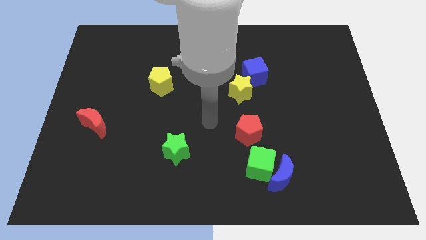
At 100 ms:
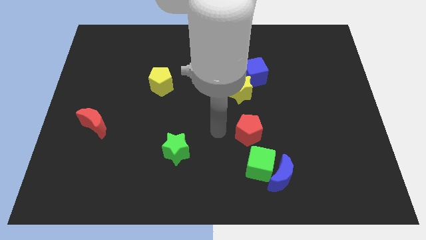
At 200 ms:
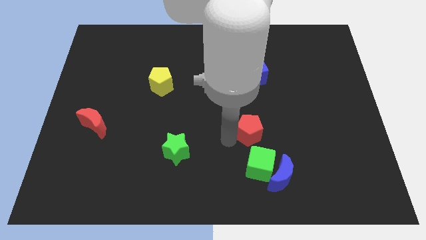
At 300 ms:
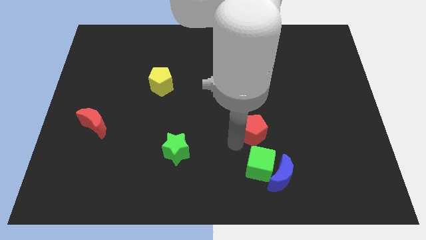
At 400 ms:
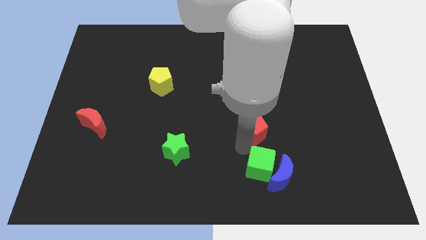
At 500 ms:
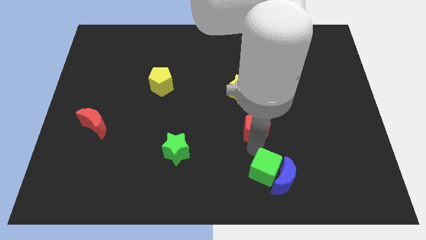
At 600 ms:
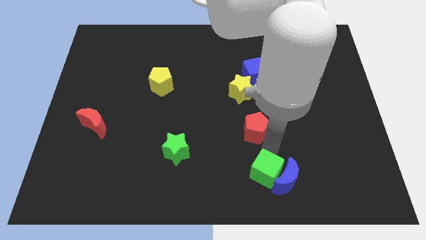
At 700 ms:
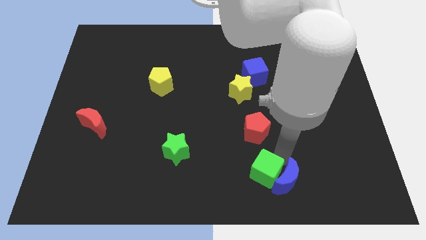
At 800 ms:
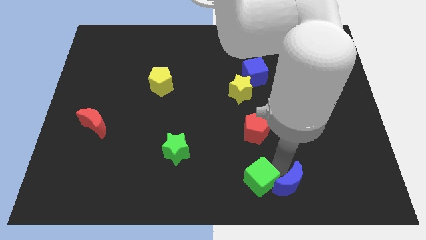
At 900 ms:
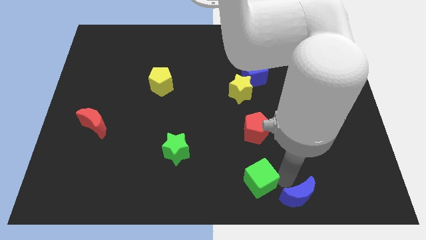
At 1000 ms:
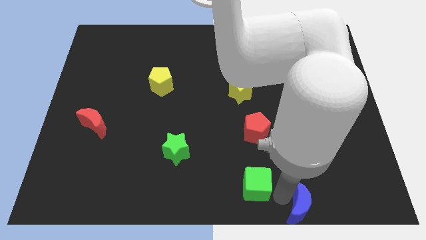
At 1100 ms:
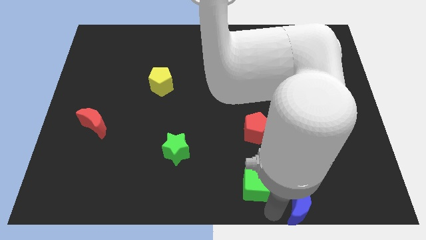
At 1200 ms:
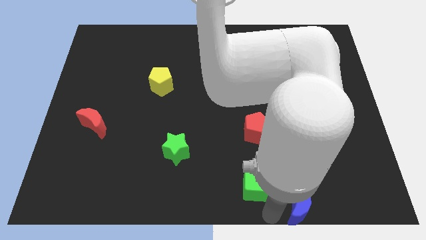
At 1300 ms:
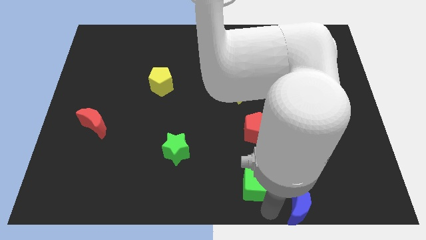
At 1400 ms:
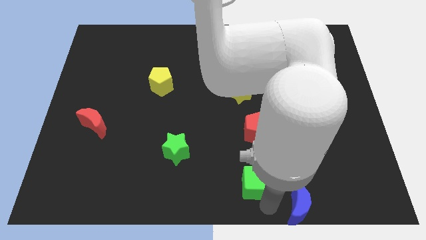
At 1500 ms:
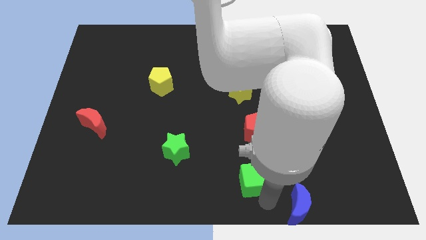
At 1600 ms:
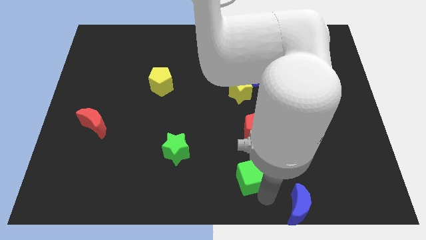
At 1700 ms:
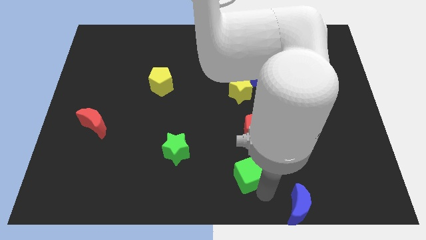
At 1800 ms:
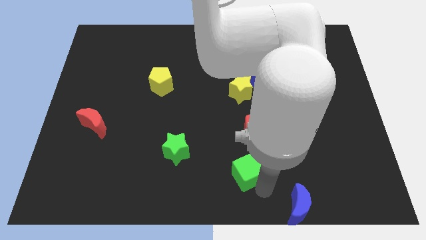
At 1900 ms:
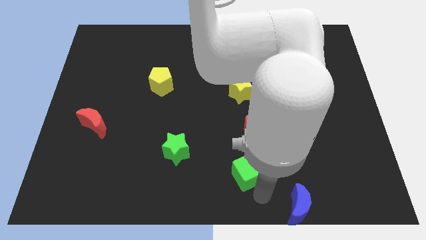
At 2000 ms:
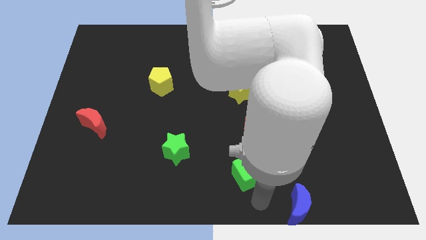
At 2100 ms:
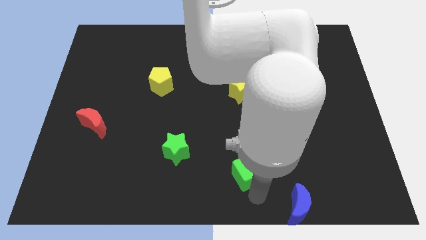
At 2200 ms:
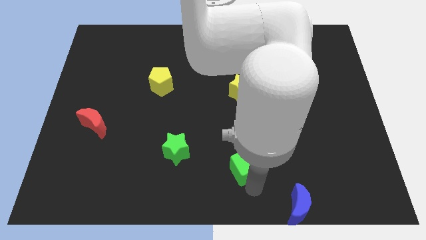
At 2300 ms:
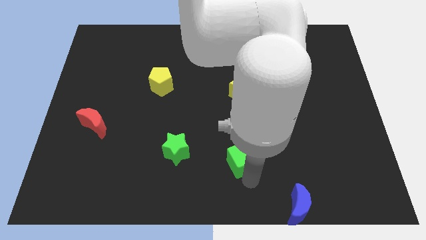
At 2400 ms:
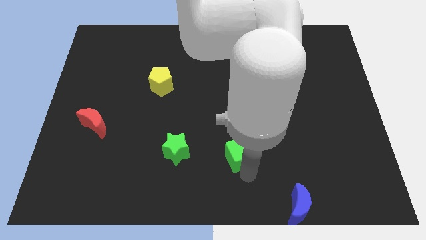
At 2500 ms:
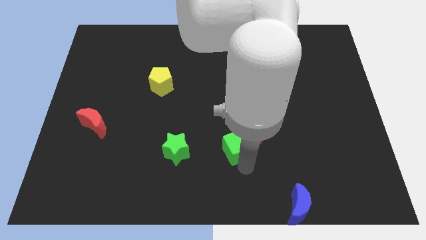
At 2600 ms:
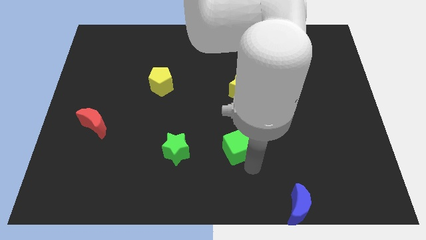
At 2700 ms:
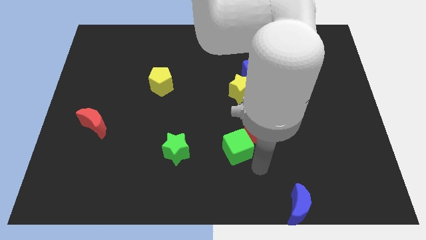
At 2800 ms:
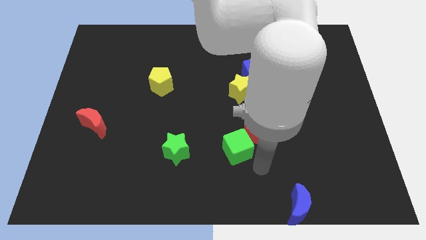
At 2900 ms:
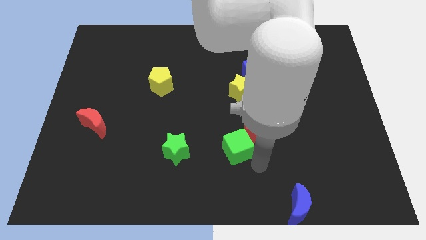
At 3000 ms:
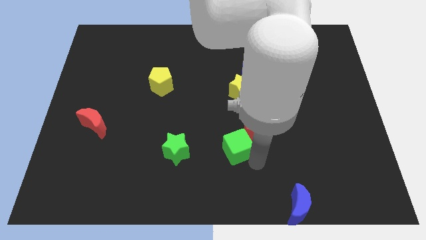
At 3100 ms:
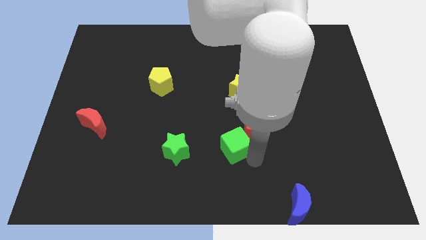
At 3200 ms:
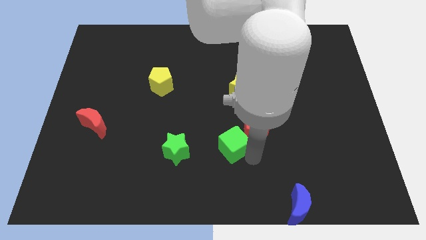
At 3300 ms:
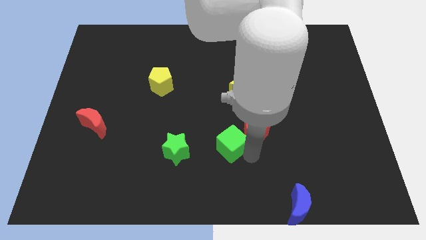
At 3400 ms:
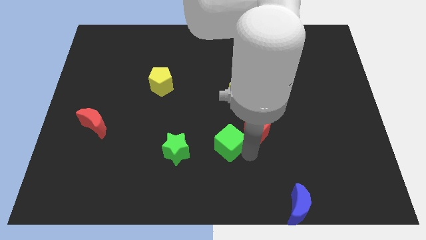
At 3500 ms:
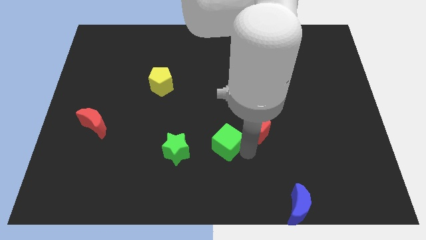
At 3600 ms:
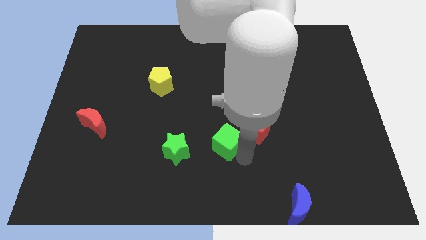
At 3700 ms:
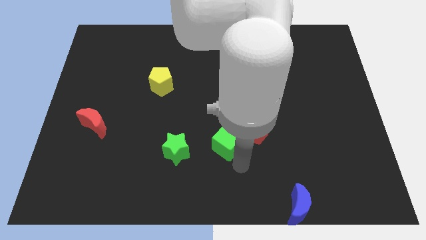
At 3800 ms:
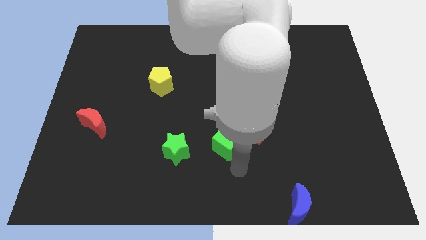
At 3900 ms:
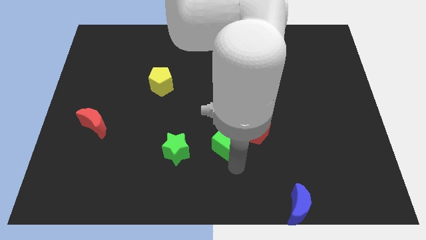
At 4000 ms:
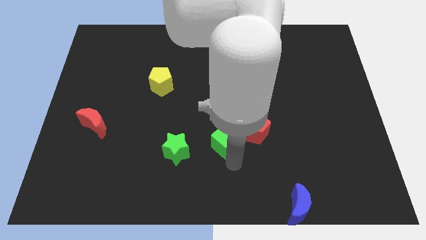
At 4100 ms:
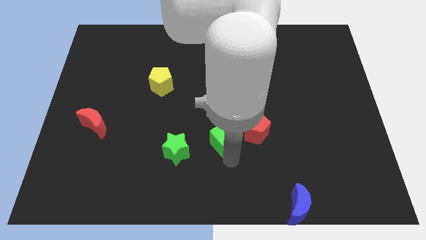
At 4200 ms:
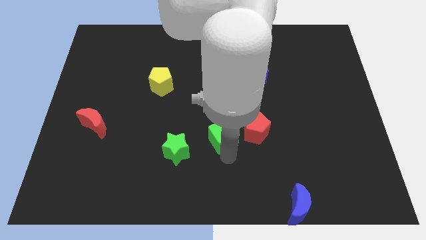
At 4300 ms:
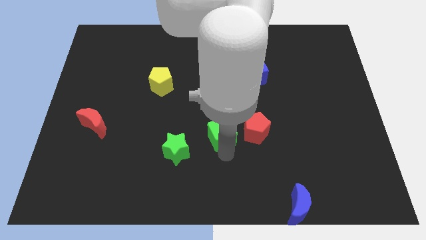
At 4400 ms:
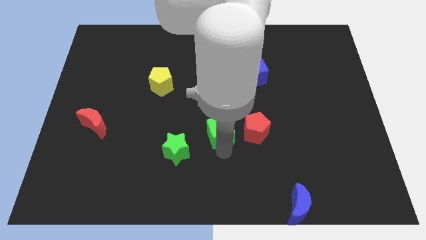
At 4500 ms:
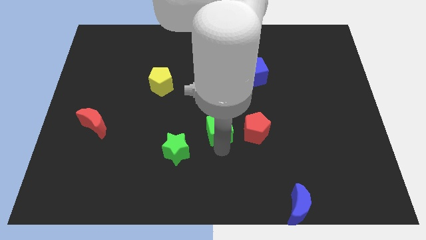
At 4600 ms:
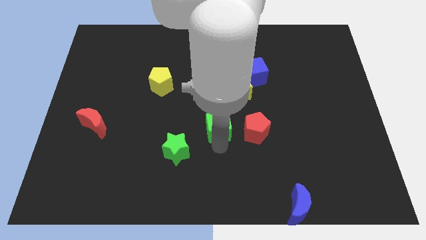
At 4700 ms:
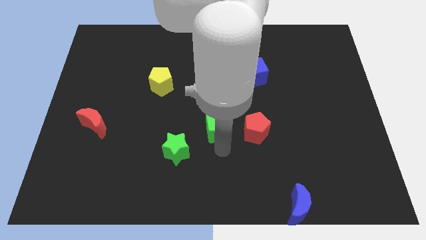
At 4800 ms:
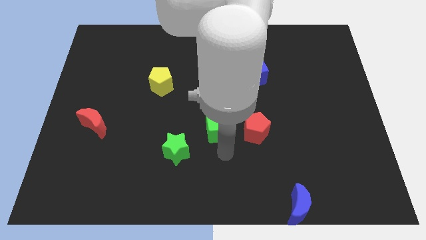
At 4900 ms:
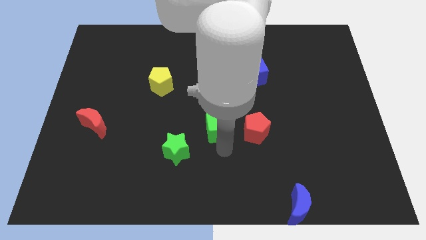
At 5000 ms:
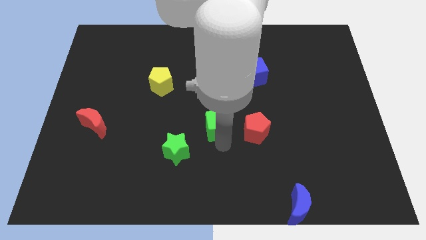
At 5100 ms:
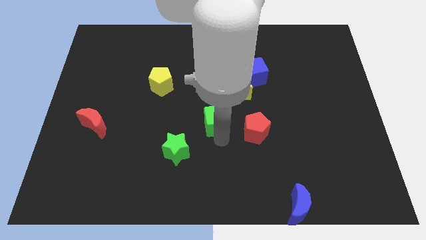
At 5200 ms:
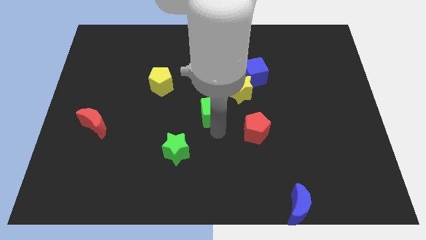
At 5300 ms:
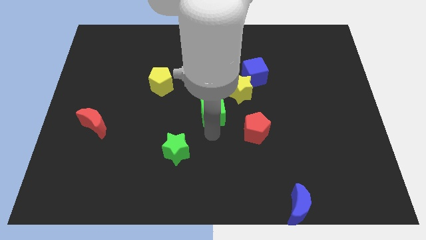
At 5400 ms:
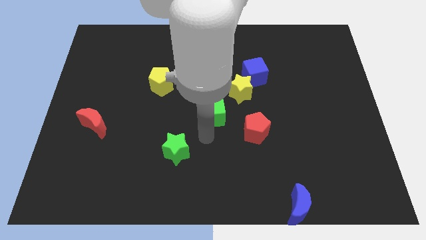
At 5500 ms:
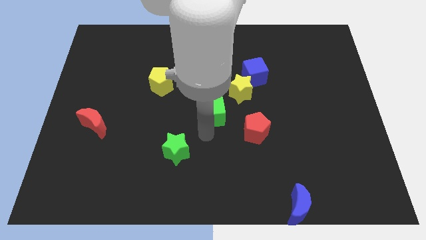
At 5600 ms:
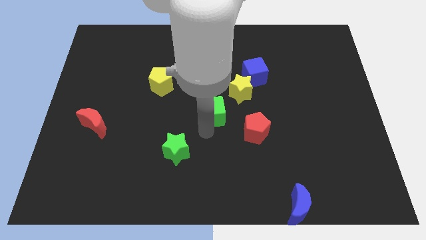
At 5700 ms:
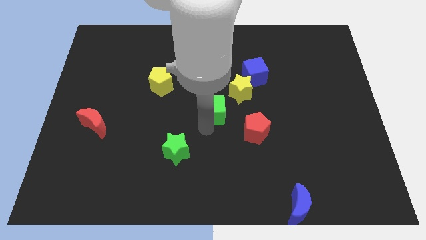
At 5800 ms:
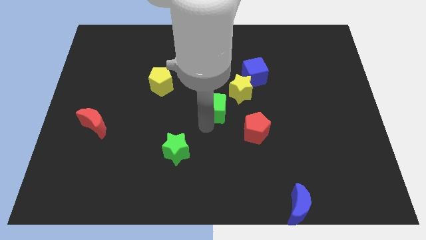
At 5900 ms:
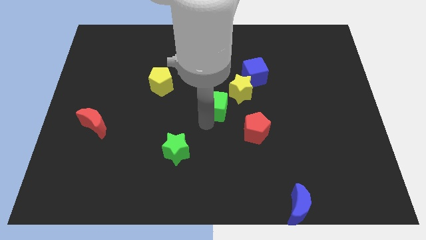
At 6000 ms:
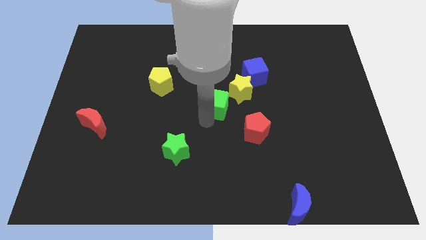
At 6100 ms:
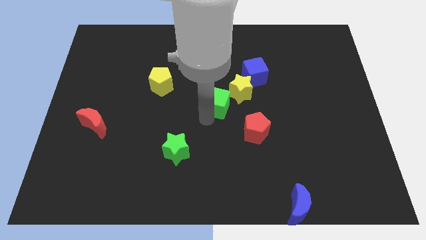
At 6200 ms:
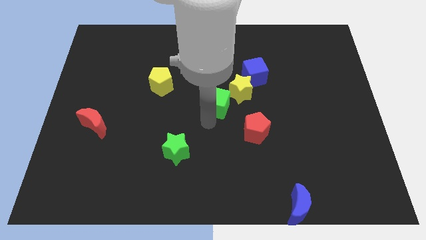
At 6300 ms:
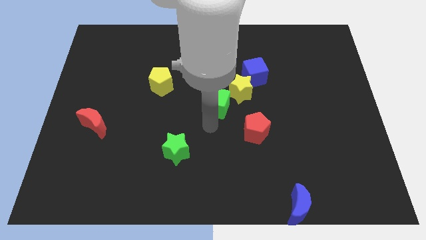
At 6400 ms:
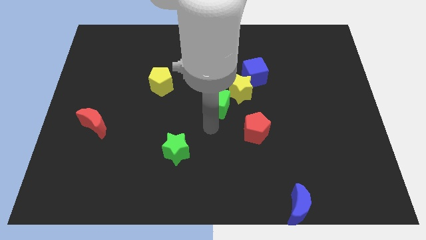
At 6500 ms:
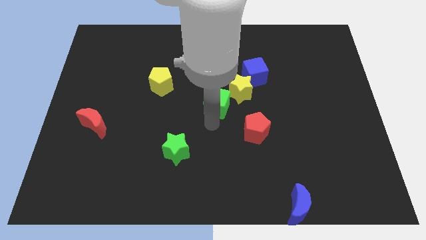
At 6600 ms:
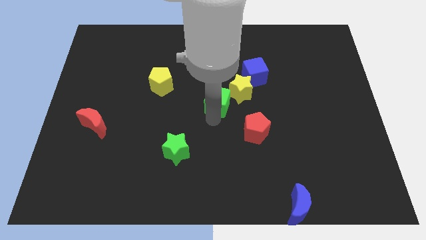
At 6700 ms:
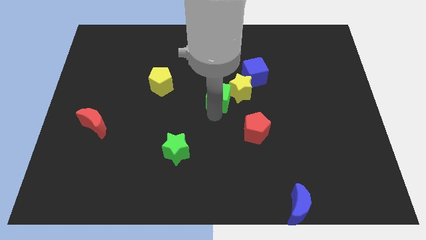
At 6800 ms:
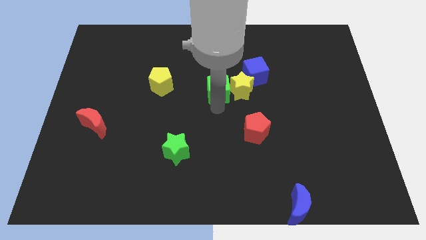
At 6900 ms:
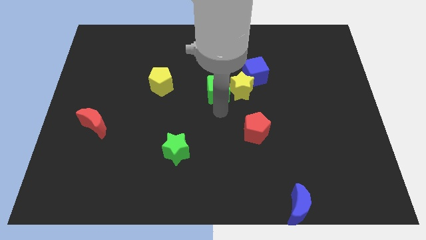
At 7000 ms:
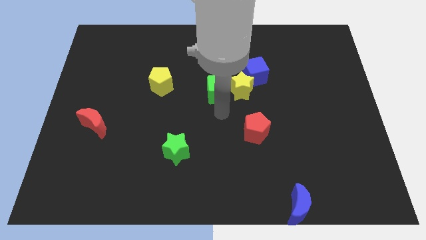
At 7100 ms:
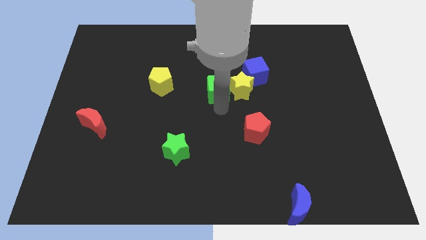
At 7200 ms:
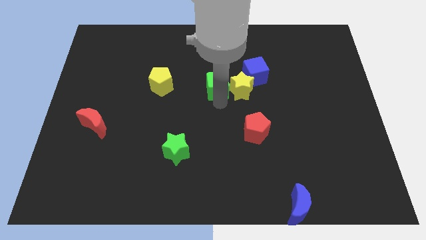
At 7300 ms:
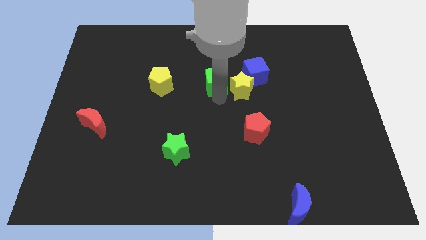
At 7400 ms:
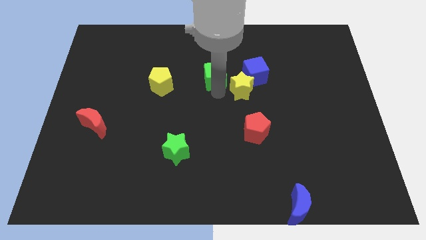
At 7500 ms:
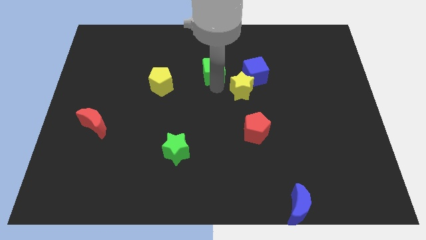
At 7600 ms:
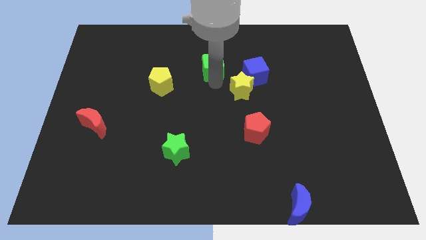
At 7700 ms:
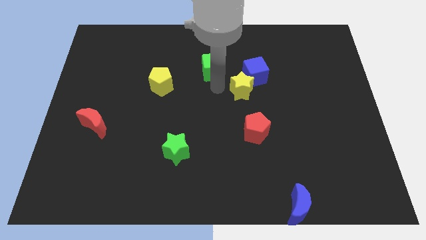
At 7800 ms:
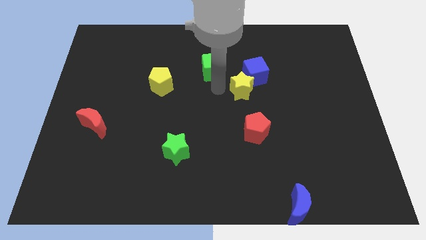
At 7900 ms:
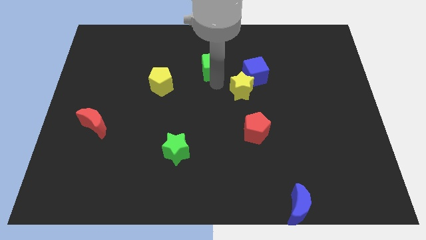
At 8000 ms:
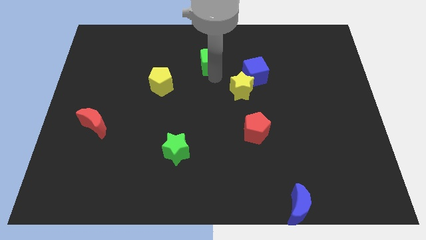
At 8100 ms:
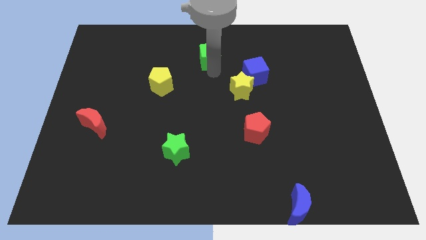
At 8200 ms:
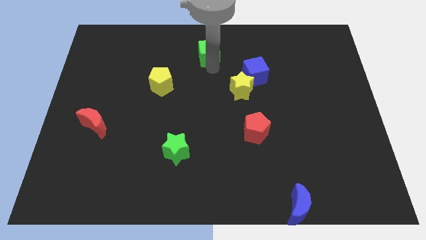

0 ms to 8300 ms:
move the green cube to the top side
